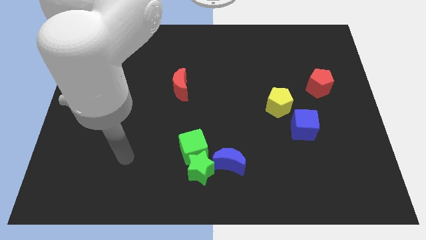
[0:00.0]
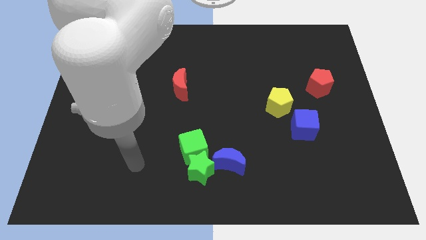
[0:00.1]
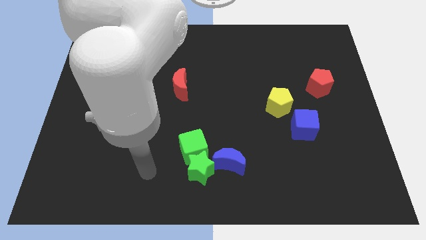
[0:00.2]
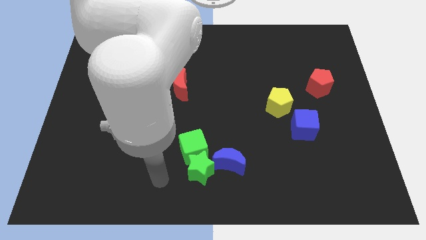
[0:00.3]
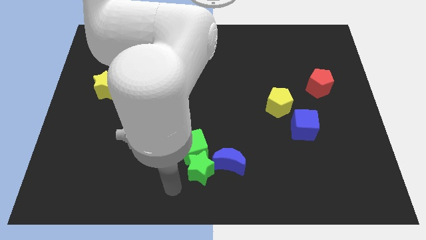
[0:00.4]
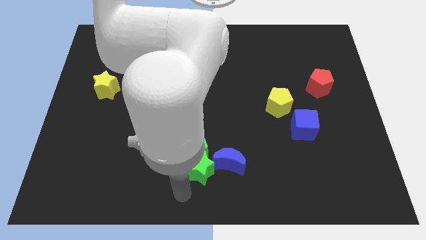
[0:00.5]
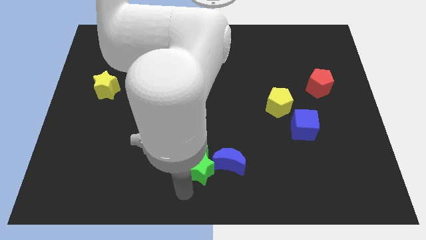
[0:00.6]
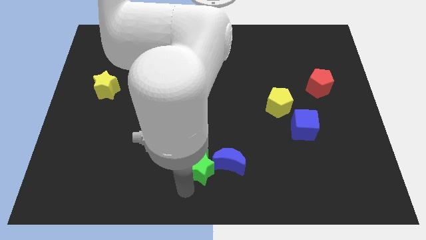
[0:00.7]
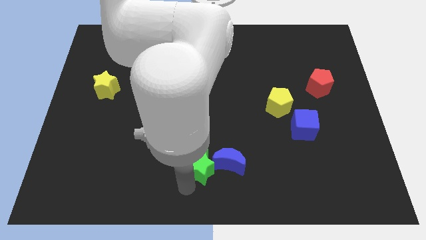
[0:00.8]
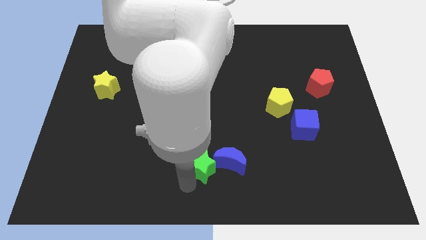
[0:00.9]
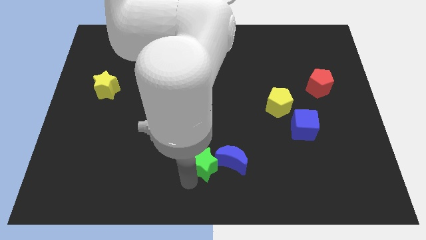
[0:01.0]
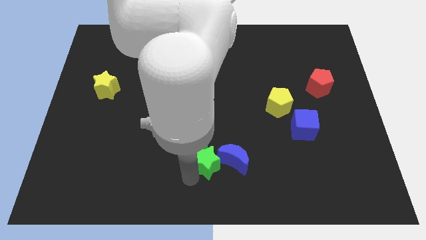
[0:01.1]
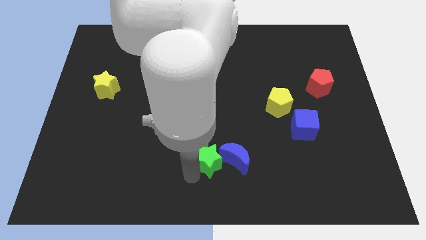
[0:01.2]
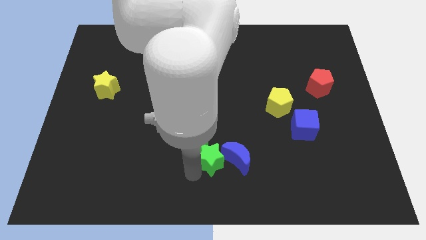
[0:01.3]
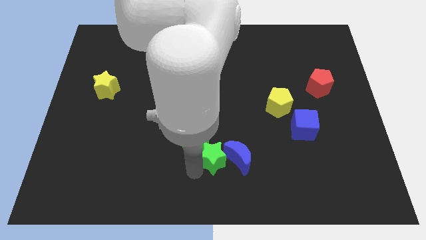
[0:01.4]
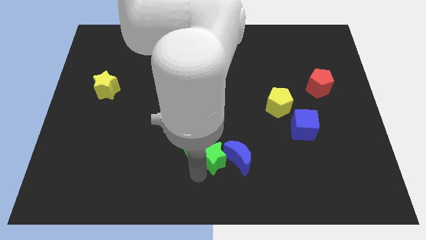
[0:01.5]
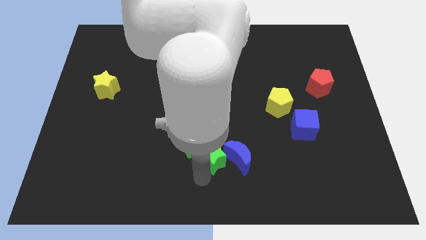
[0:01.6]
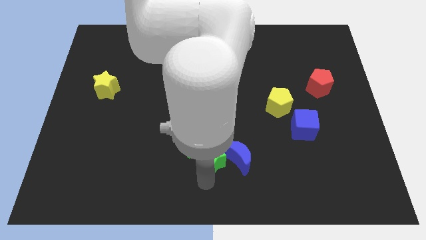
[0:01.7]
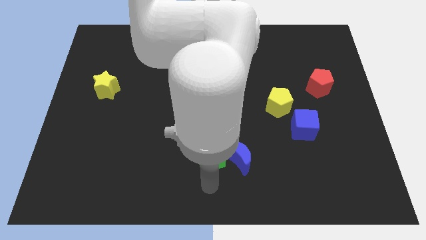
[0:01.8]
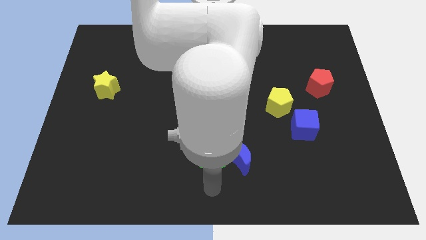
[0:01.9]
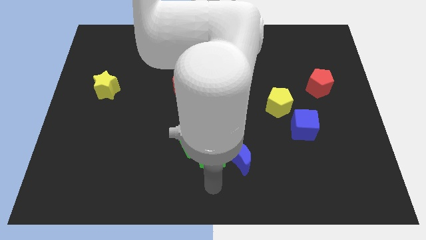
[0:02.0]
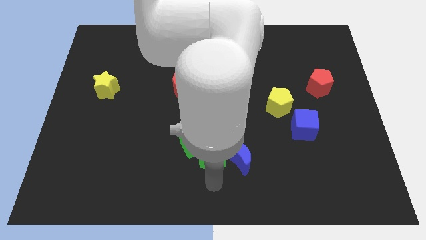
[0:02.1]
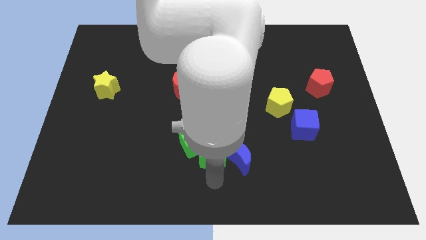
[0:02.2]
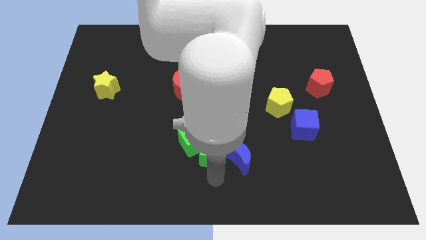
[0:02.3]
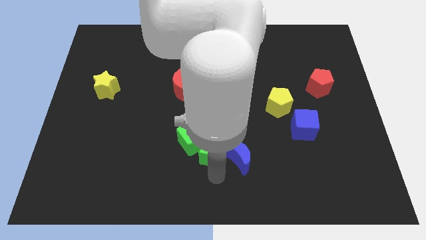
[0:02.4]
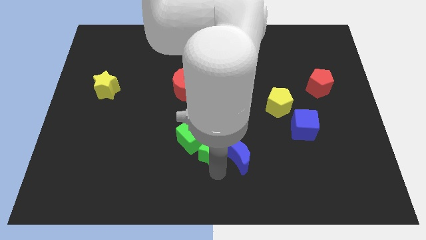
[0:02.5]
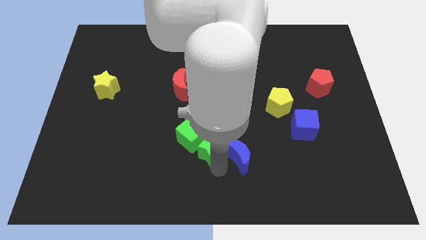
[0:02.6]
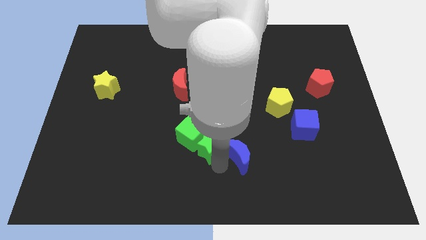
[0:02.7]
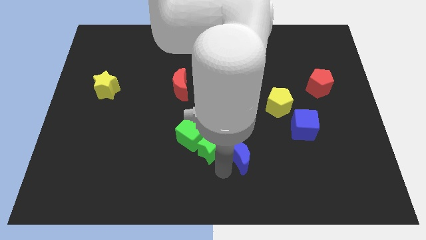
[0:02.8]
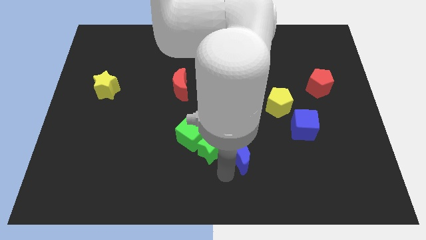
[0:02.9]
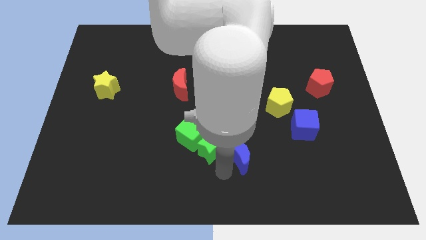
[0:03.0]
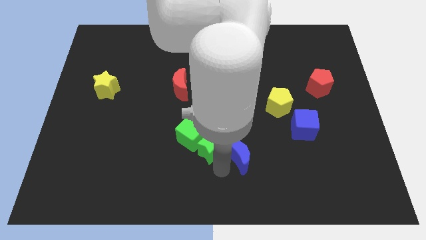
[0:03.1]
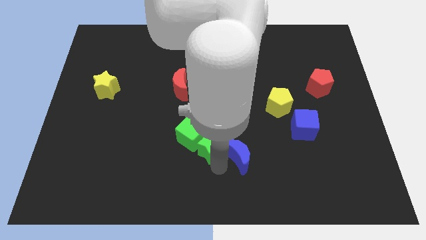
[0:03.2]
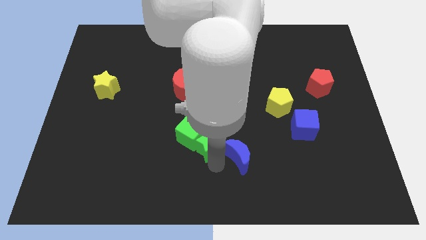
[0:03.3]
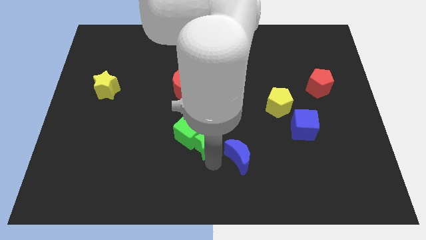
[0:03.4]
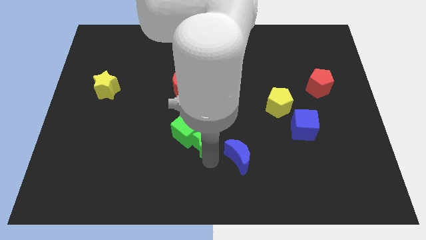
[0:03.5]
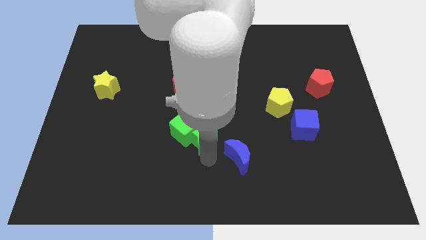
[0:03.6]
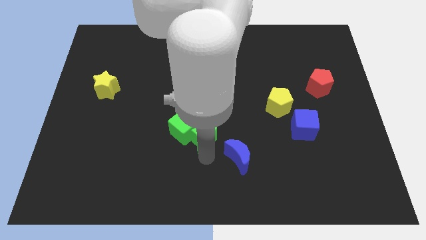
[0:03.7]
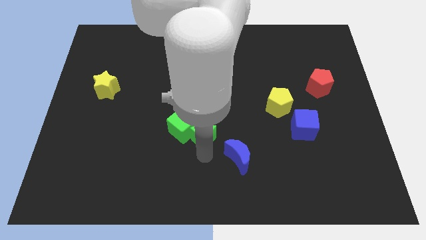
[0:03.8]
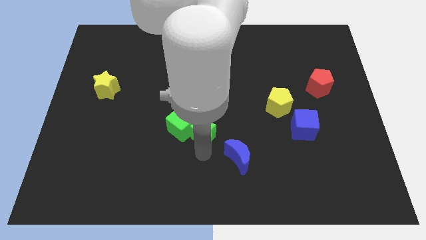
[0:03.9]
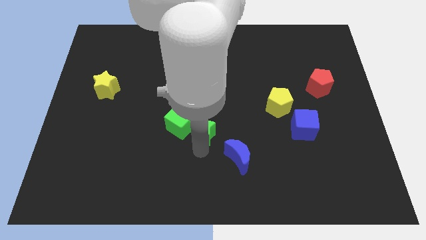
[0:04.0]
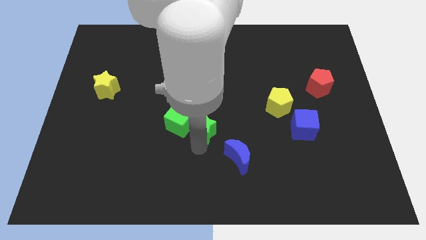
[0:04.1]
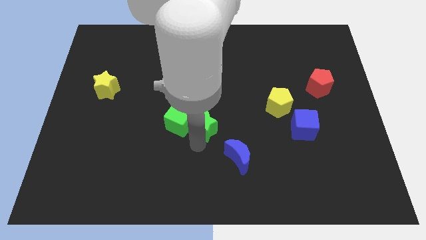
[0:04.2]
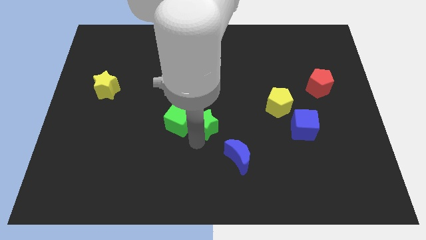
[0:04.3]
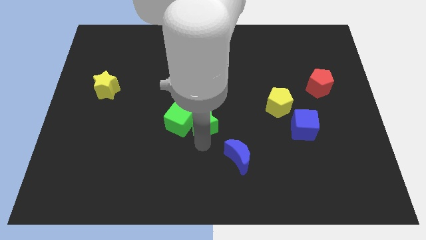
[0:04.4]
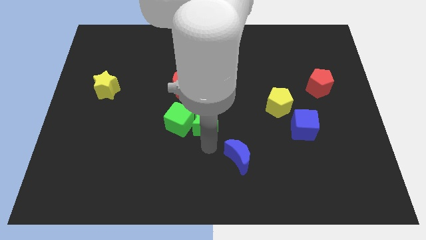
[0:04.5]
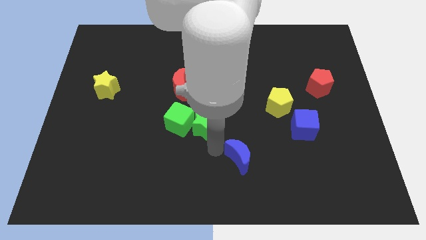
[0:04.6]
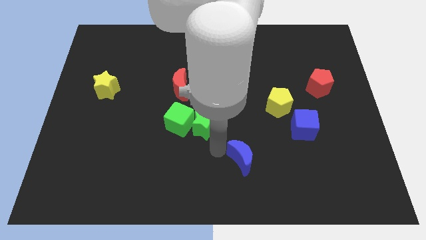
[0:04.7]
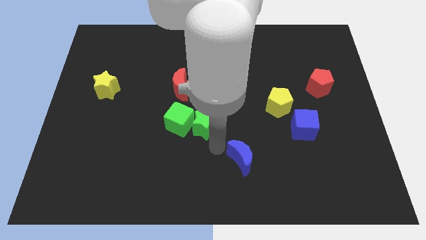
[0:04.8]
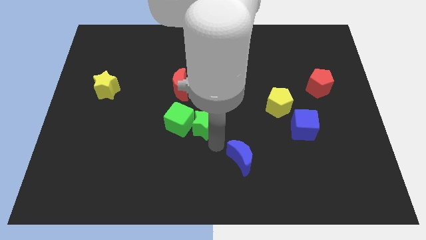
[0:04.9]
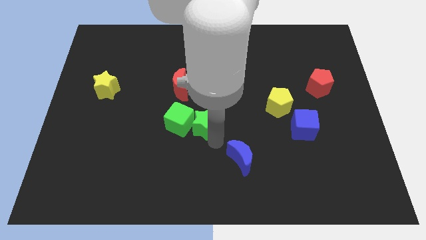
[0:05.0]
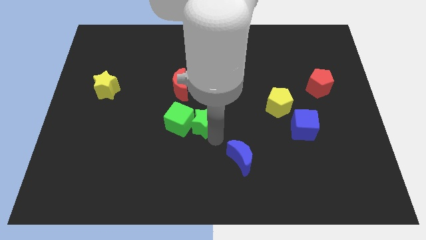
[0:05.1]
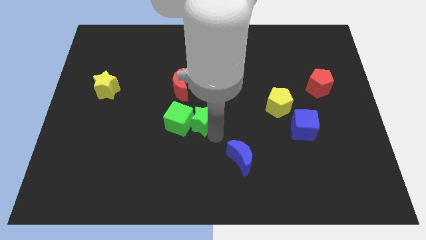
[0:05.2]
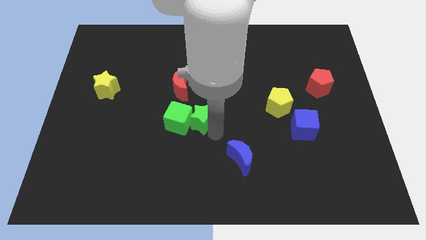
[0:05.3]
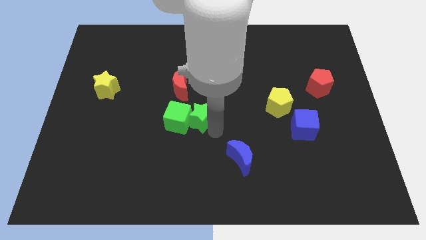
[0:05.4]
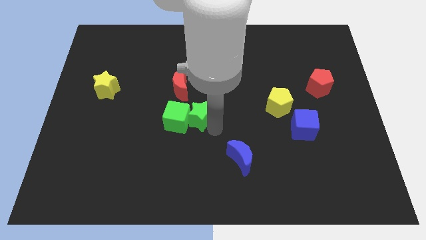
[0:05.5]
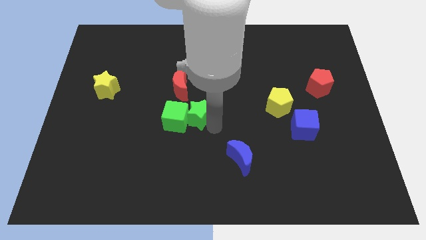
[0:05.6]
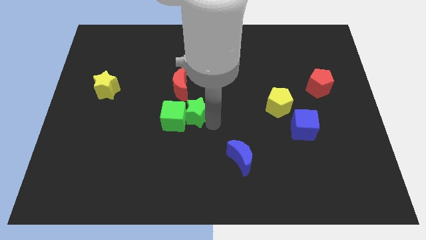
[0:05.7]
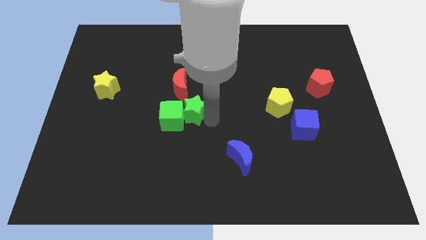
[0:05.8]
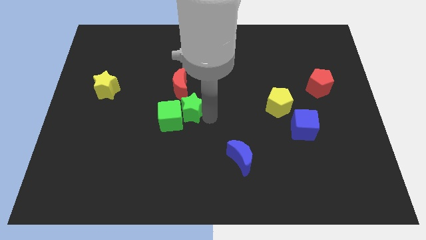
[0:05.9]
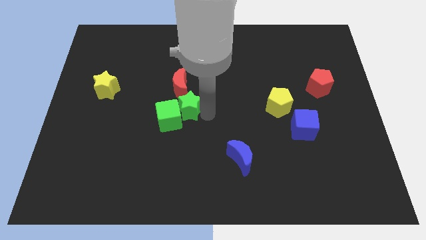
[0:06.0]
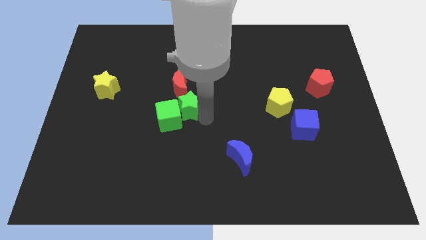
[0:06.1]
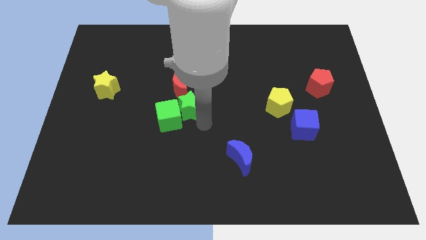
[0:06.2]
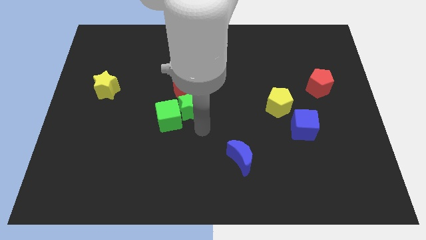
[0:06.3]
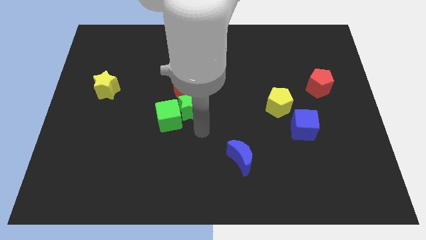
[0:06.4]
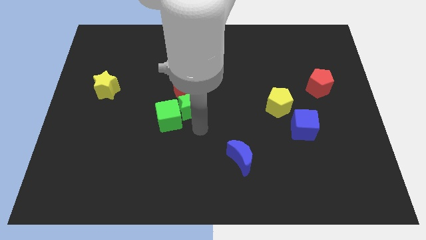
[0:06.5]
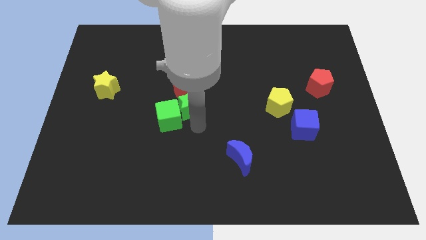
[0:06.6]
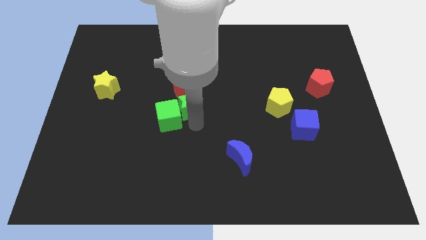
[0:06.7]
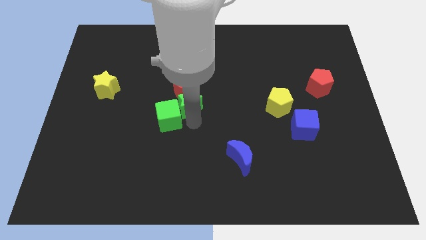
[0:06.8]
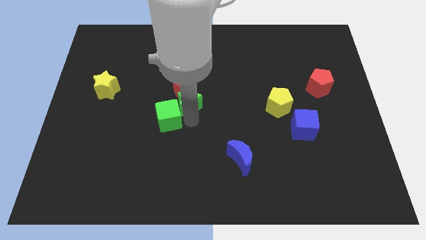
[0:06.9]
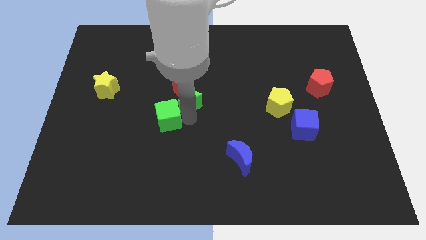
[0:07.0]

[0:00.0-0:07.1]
move the green star close to the red moon

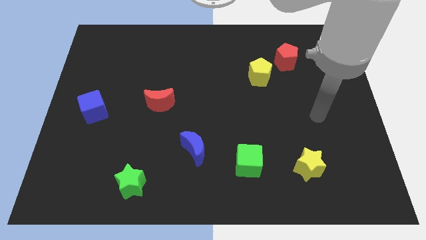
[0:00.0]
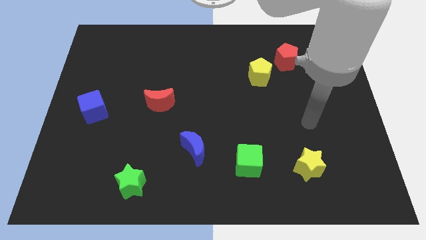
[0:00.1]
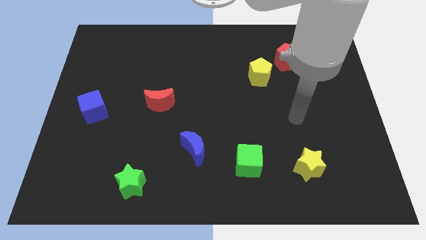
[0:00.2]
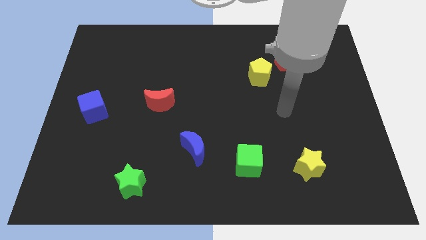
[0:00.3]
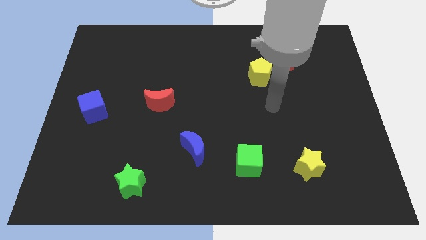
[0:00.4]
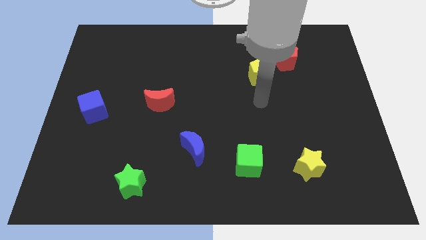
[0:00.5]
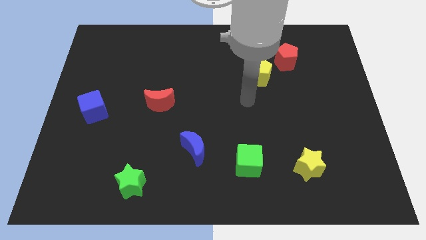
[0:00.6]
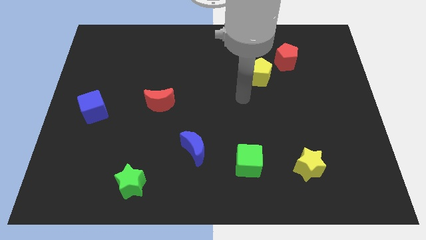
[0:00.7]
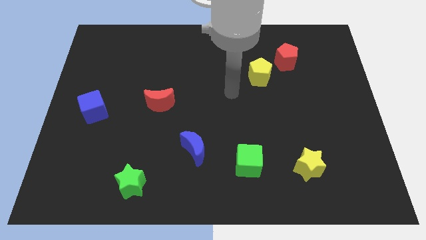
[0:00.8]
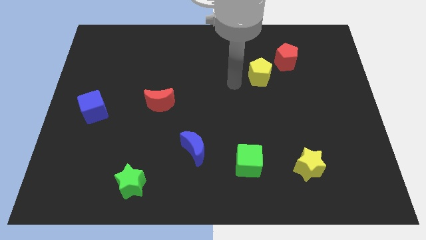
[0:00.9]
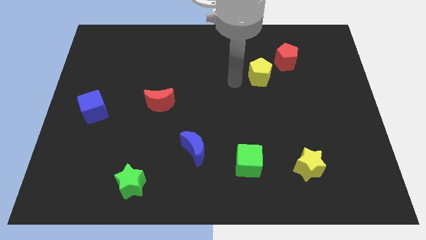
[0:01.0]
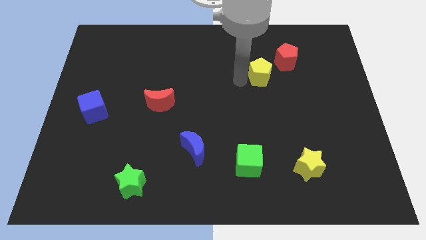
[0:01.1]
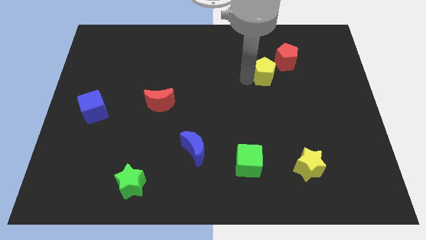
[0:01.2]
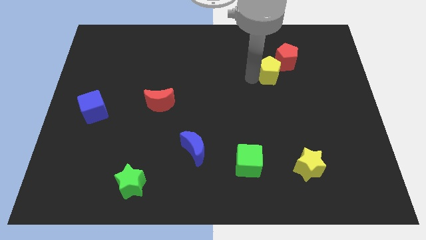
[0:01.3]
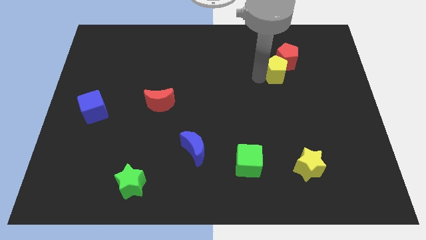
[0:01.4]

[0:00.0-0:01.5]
push the yellow pentagon towards the red pentagon
